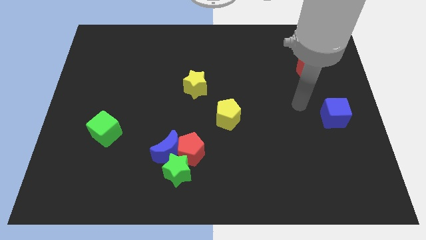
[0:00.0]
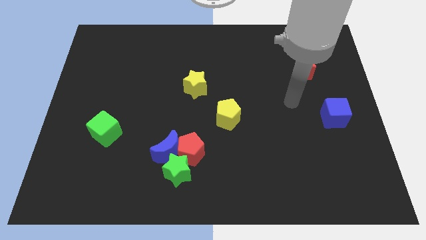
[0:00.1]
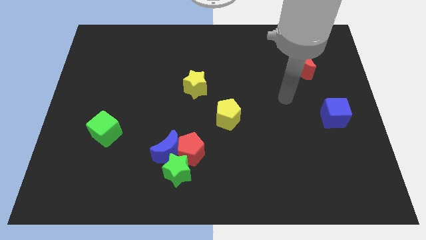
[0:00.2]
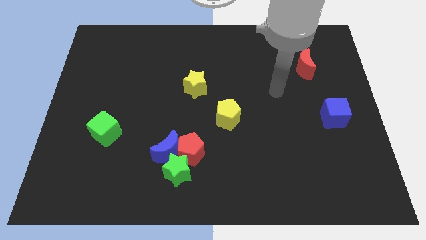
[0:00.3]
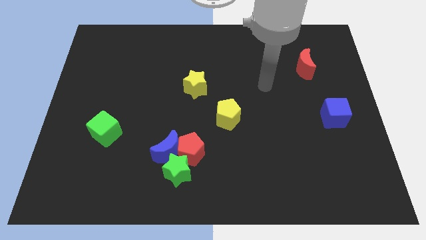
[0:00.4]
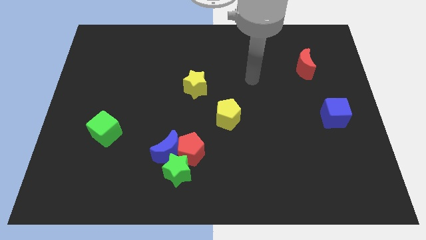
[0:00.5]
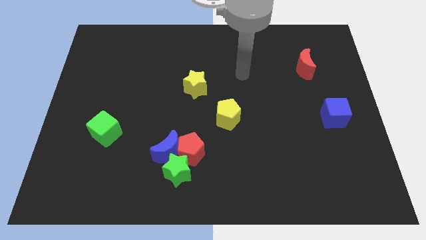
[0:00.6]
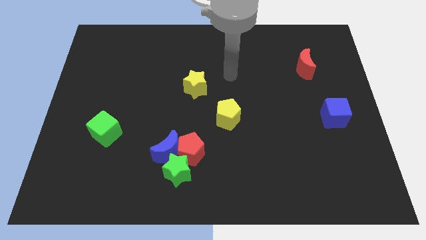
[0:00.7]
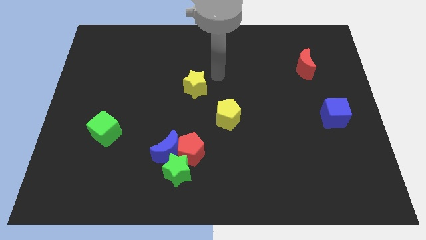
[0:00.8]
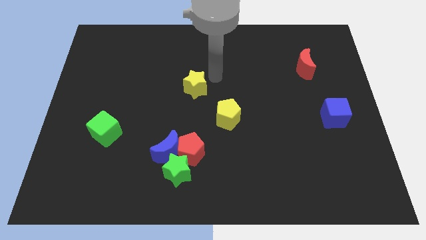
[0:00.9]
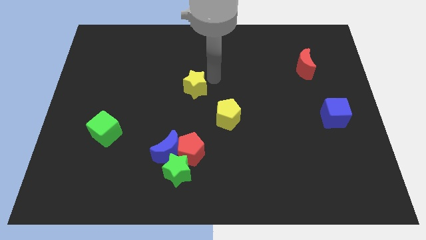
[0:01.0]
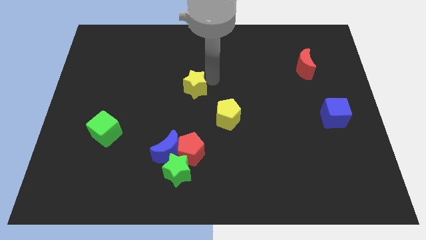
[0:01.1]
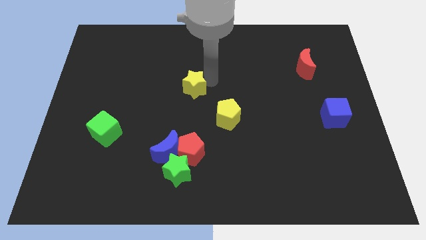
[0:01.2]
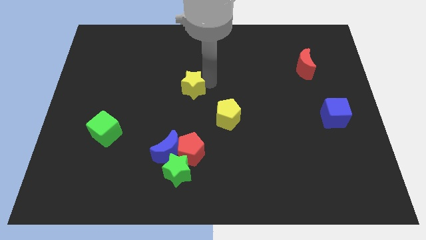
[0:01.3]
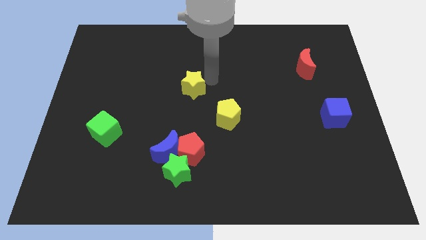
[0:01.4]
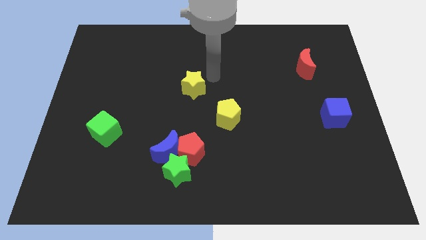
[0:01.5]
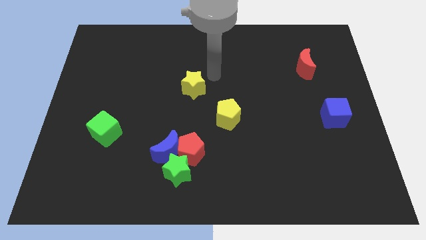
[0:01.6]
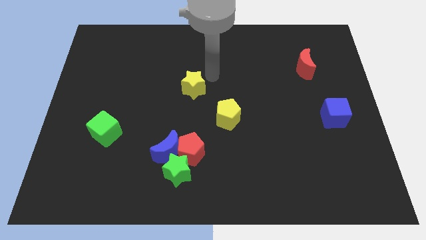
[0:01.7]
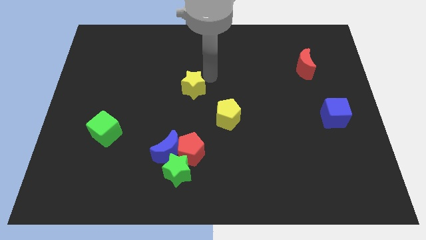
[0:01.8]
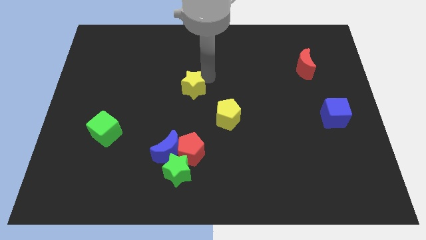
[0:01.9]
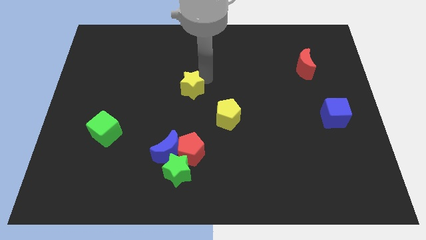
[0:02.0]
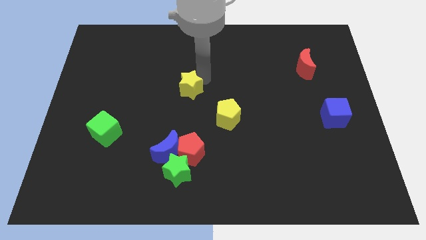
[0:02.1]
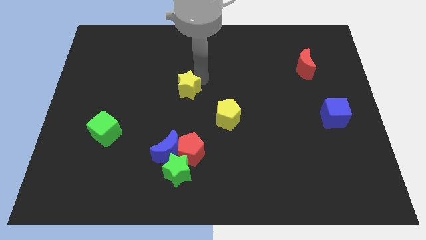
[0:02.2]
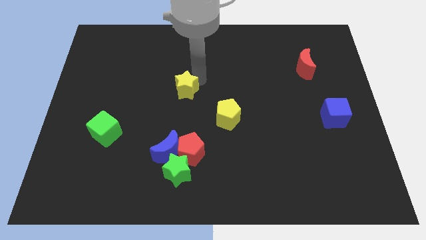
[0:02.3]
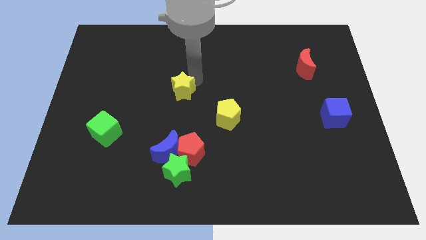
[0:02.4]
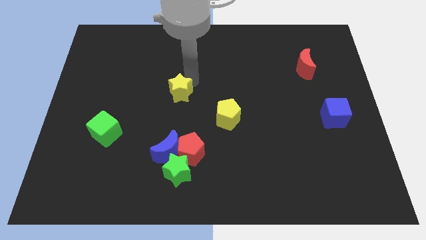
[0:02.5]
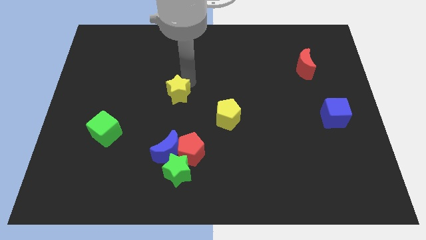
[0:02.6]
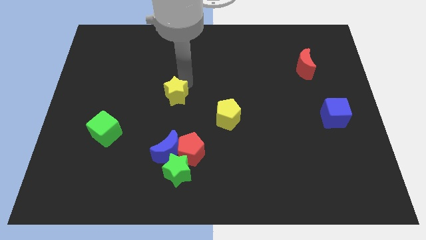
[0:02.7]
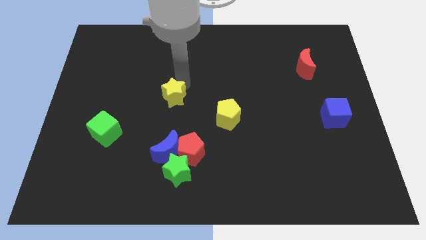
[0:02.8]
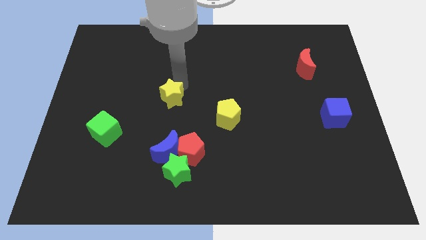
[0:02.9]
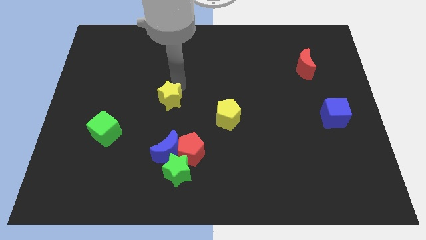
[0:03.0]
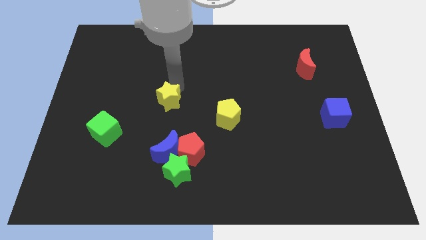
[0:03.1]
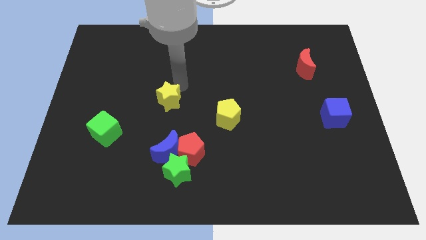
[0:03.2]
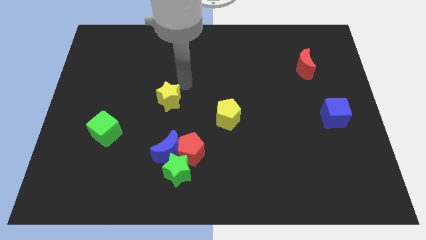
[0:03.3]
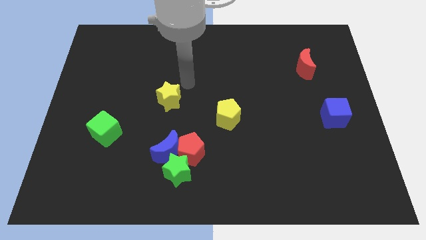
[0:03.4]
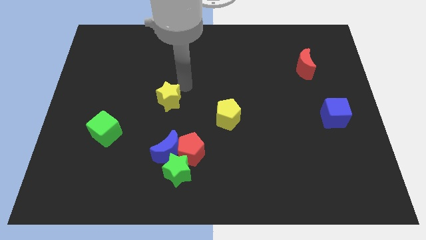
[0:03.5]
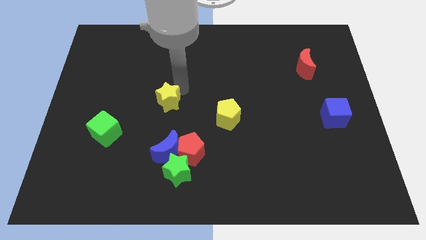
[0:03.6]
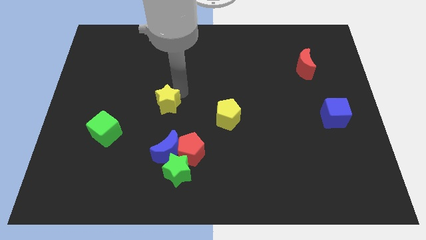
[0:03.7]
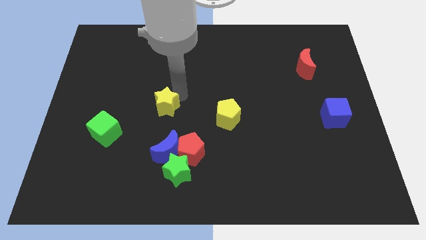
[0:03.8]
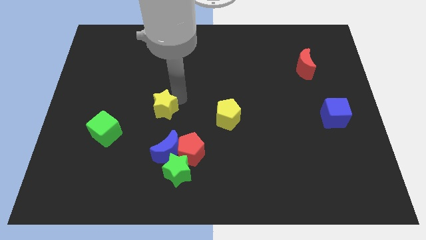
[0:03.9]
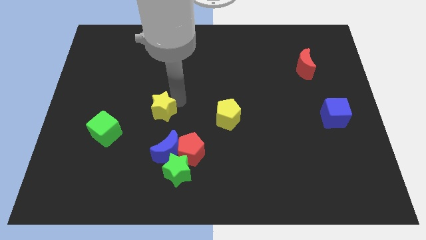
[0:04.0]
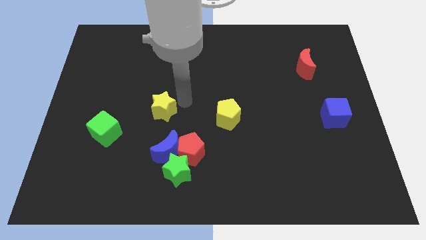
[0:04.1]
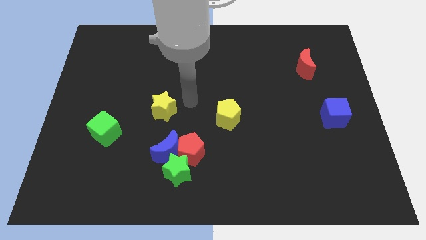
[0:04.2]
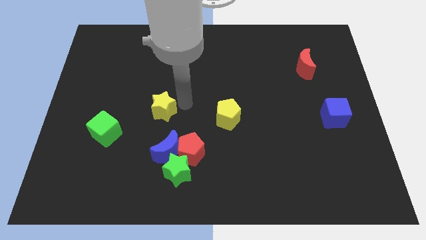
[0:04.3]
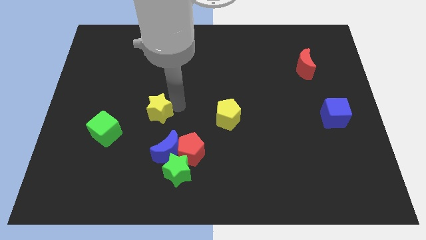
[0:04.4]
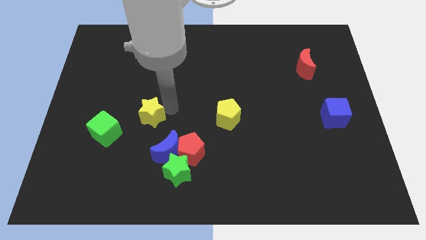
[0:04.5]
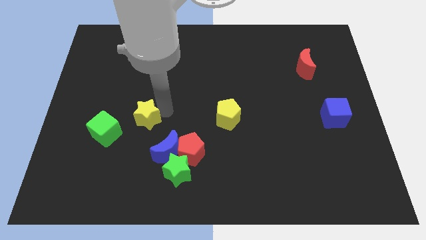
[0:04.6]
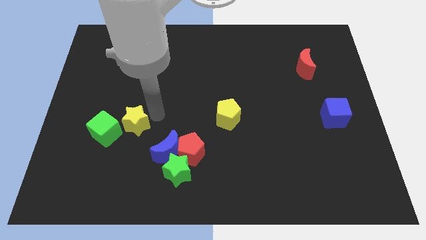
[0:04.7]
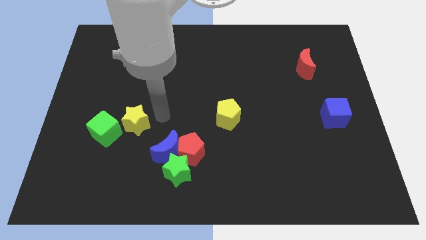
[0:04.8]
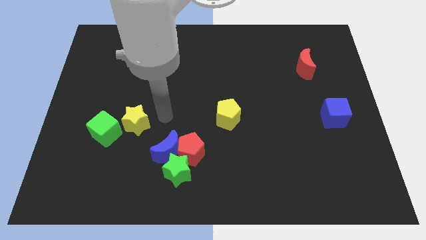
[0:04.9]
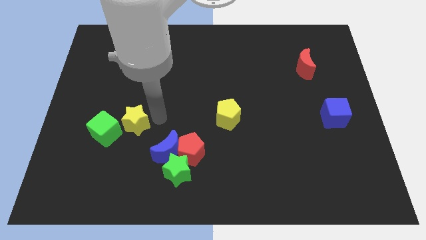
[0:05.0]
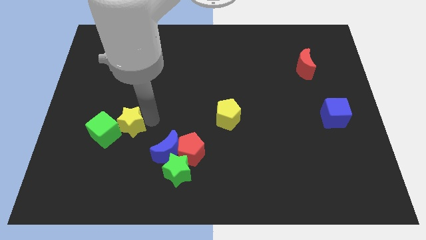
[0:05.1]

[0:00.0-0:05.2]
slide the yellow star to the green cube

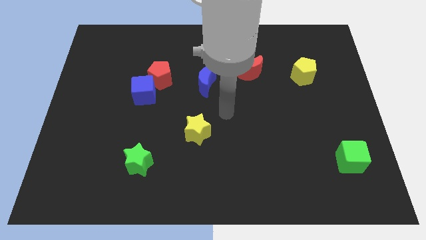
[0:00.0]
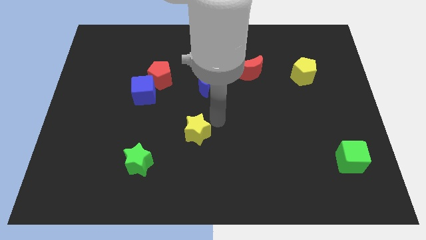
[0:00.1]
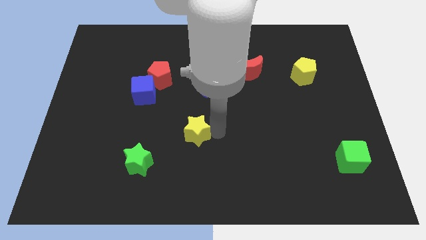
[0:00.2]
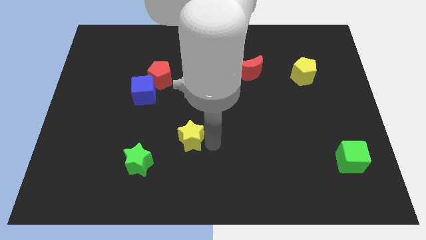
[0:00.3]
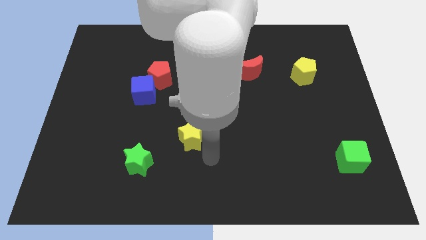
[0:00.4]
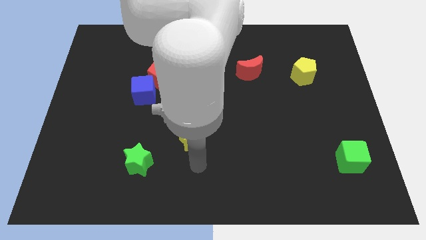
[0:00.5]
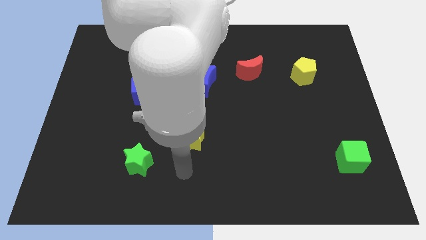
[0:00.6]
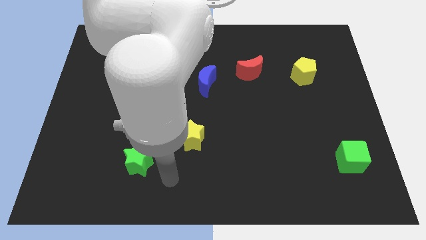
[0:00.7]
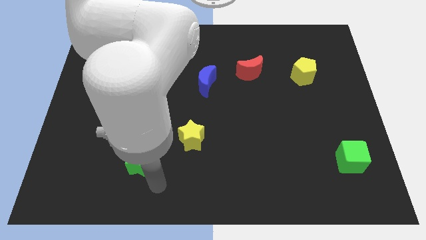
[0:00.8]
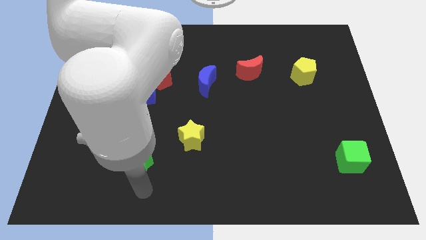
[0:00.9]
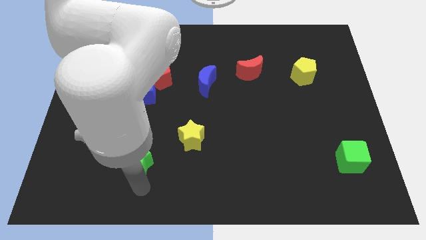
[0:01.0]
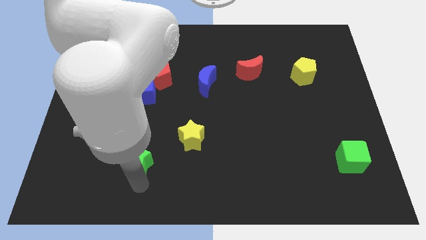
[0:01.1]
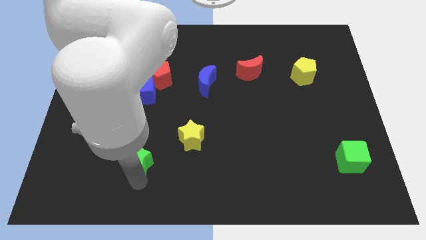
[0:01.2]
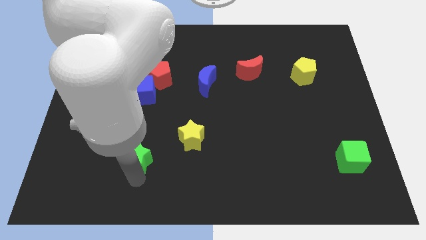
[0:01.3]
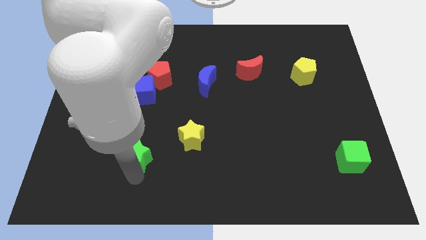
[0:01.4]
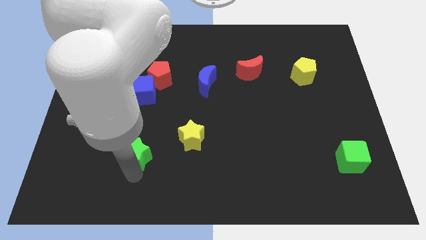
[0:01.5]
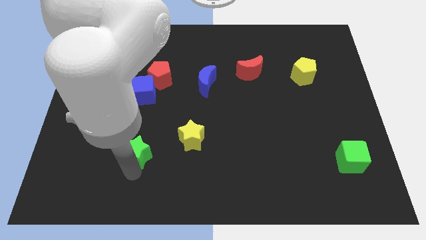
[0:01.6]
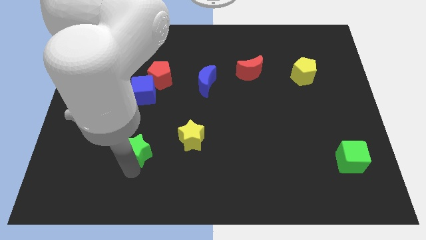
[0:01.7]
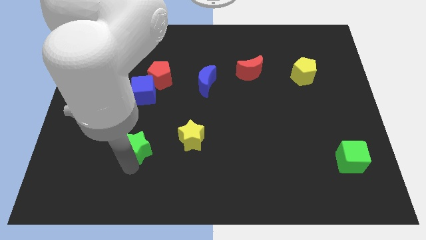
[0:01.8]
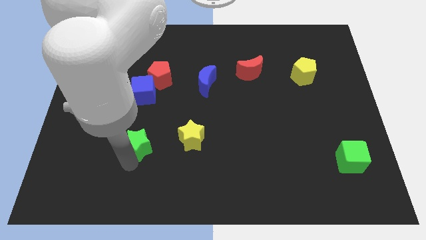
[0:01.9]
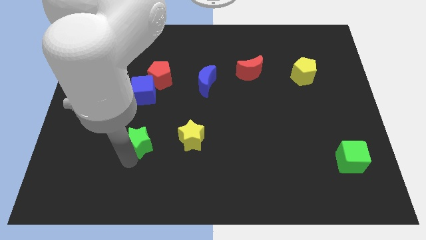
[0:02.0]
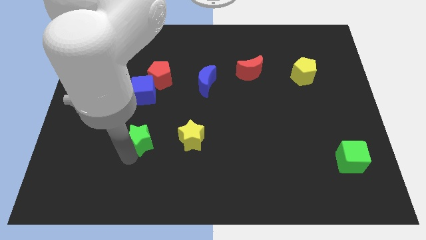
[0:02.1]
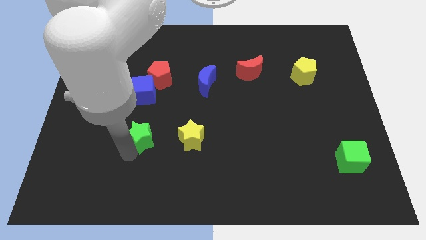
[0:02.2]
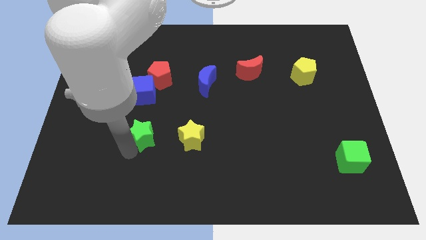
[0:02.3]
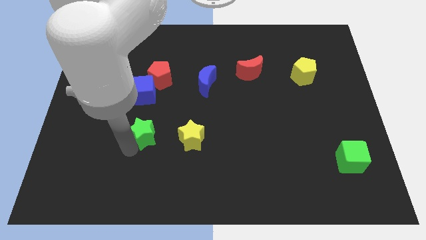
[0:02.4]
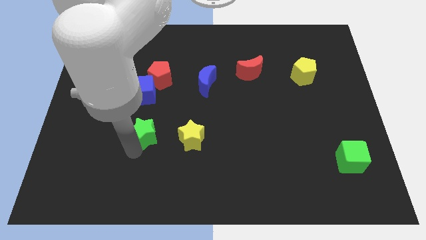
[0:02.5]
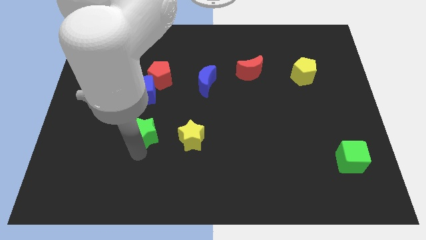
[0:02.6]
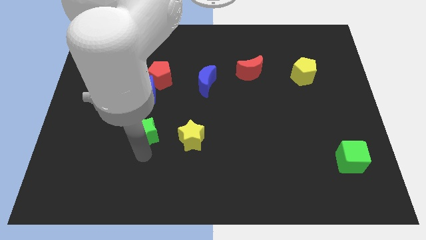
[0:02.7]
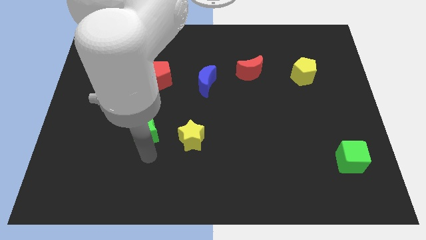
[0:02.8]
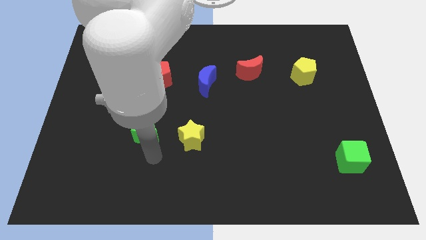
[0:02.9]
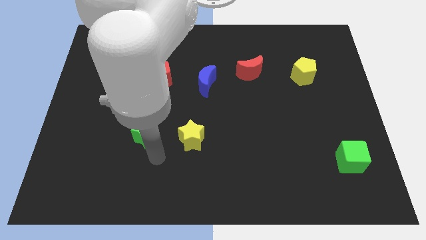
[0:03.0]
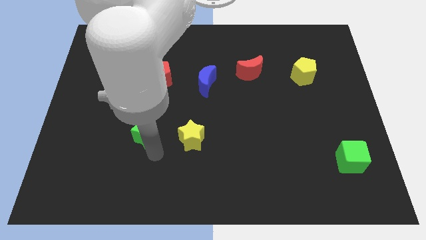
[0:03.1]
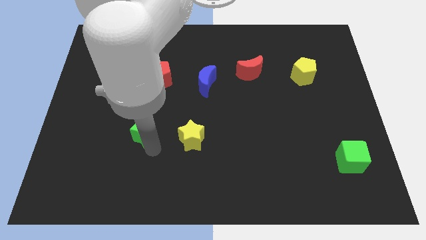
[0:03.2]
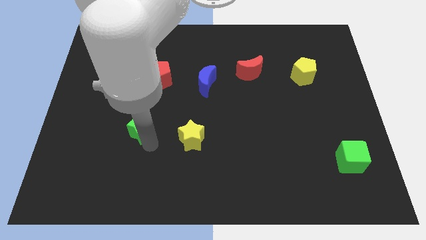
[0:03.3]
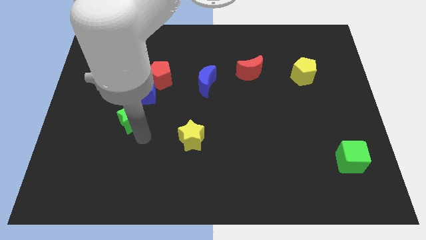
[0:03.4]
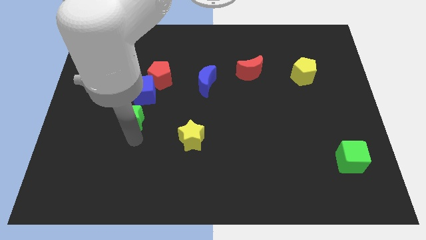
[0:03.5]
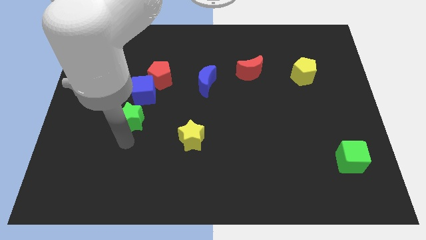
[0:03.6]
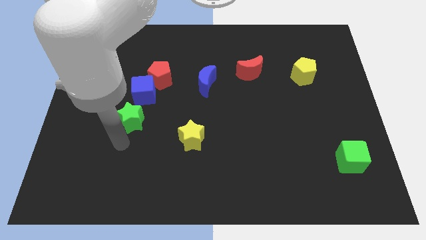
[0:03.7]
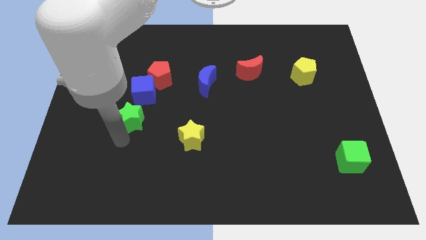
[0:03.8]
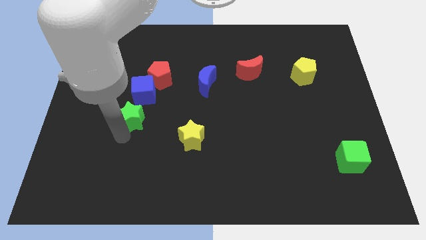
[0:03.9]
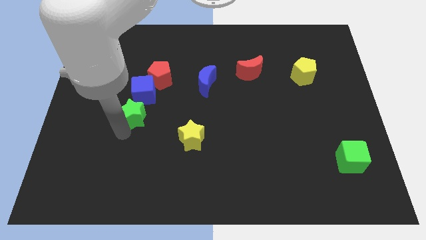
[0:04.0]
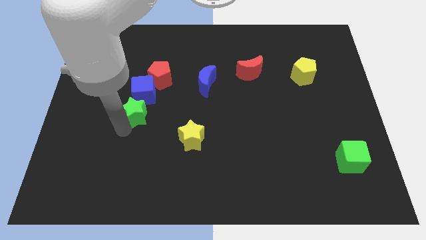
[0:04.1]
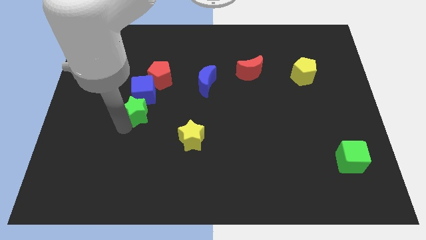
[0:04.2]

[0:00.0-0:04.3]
push the green star close to the blue cube
